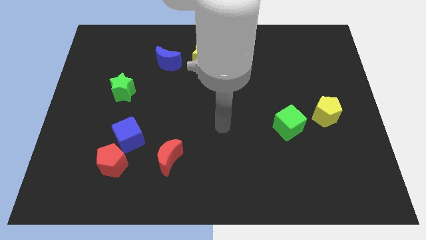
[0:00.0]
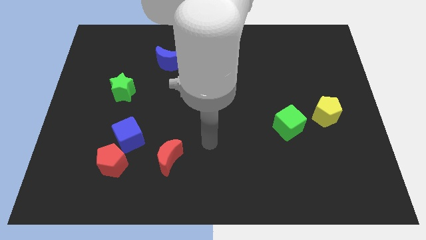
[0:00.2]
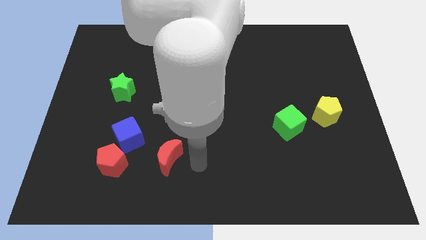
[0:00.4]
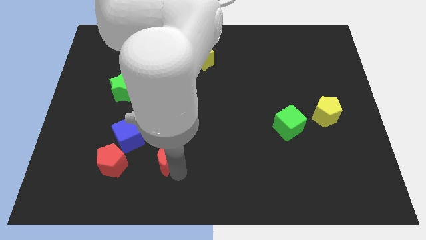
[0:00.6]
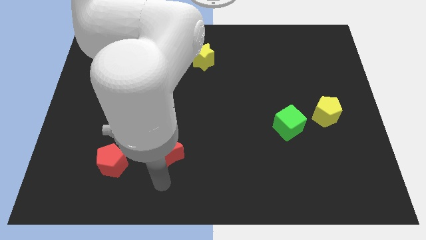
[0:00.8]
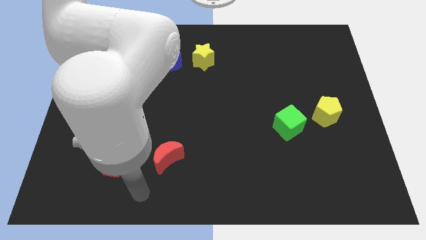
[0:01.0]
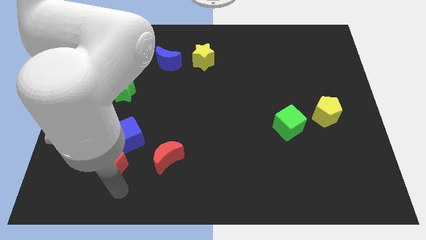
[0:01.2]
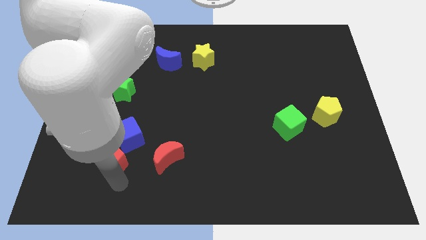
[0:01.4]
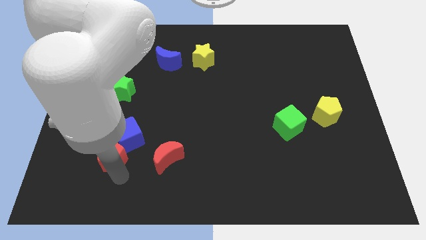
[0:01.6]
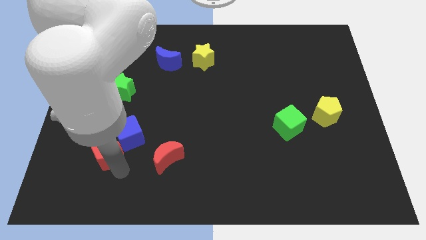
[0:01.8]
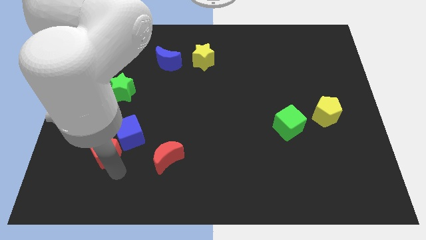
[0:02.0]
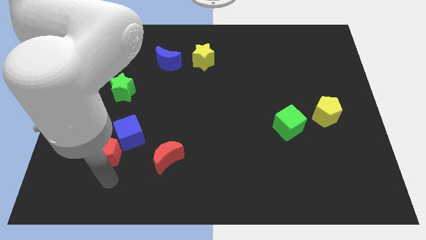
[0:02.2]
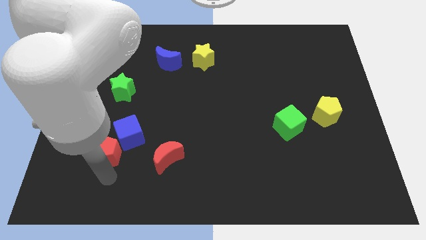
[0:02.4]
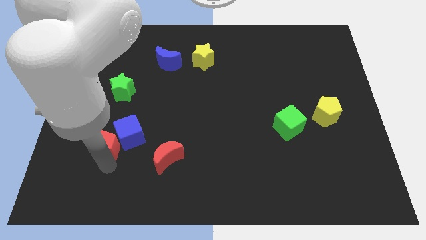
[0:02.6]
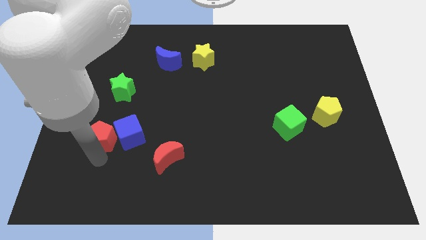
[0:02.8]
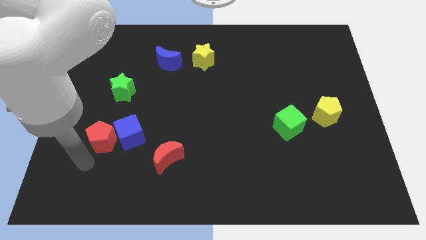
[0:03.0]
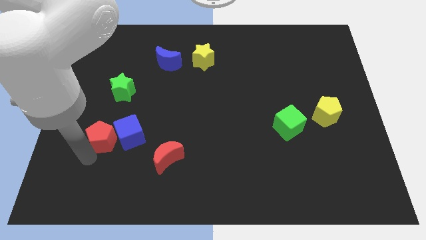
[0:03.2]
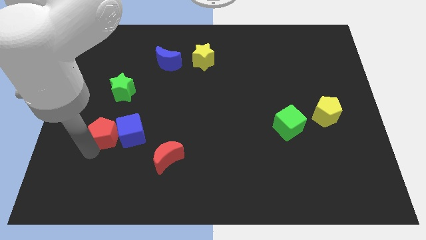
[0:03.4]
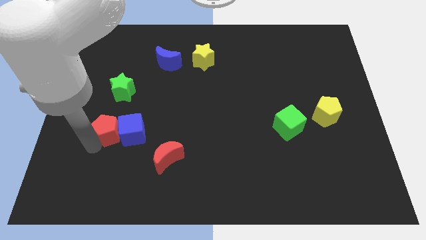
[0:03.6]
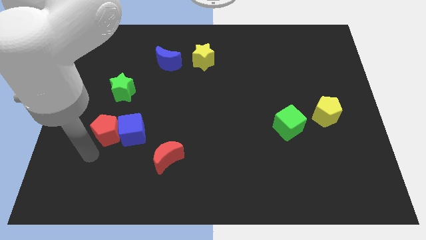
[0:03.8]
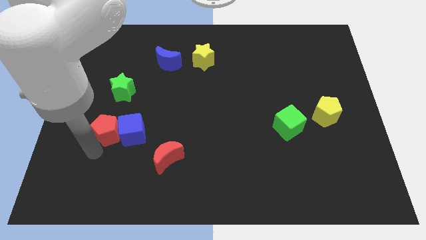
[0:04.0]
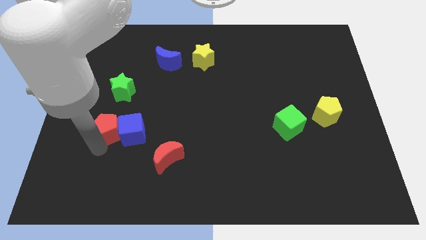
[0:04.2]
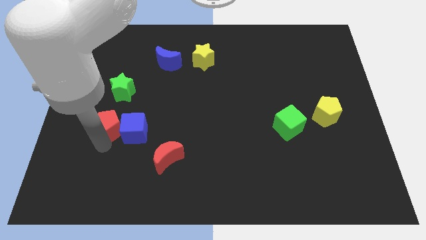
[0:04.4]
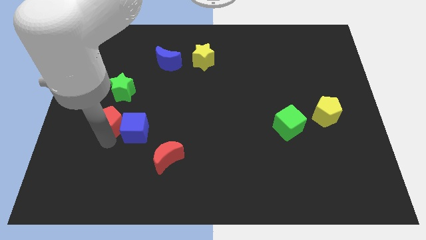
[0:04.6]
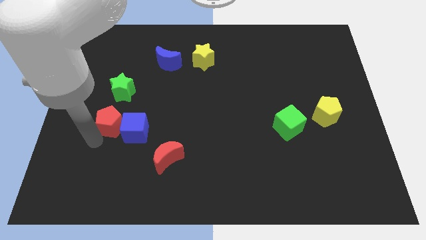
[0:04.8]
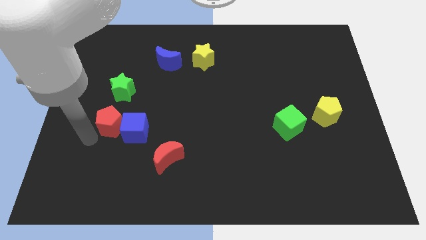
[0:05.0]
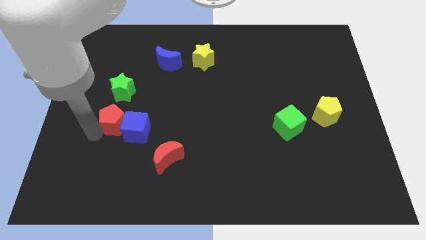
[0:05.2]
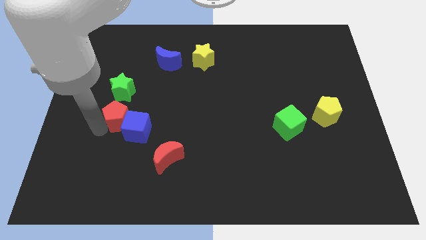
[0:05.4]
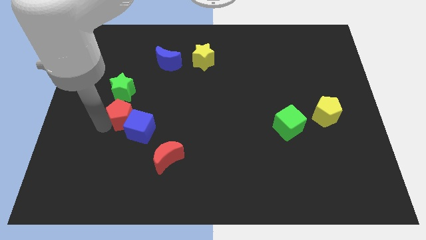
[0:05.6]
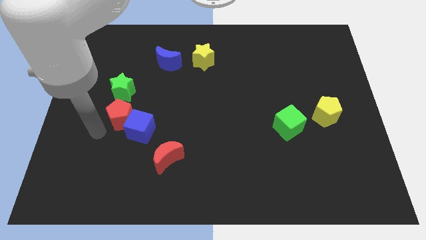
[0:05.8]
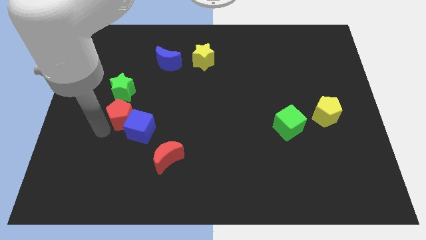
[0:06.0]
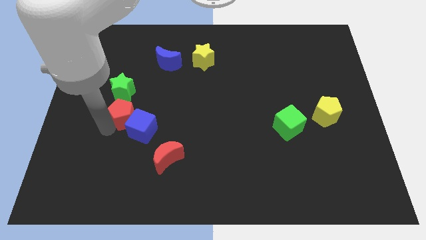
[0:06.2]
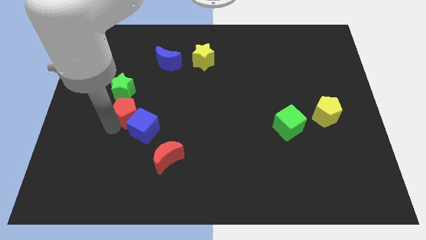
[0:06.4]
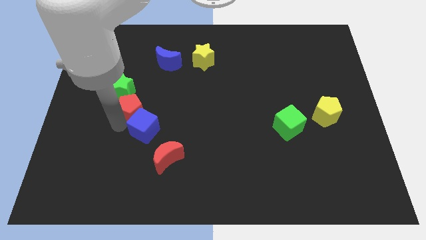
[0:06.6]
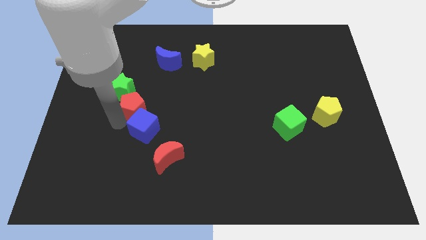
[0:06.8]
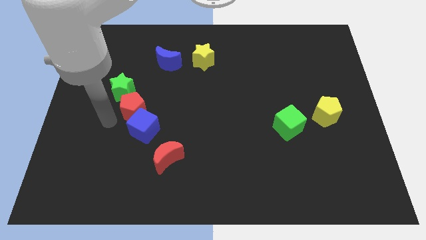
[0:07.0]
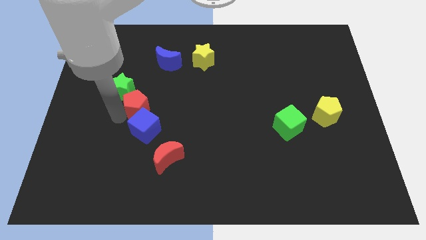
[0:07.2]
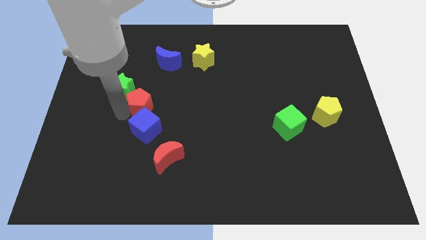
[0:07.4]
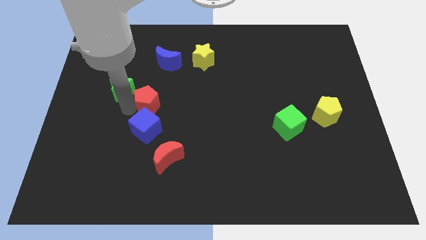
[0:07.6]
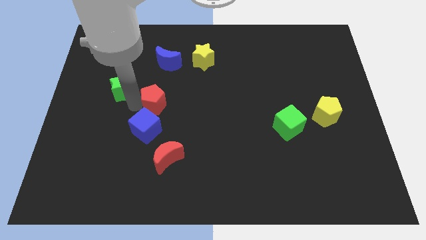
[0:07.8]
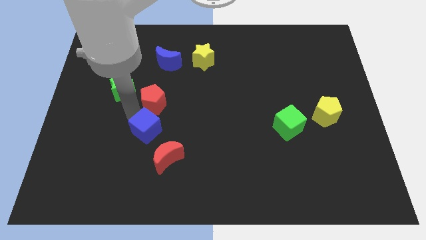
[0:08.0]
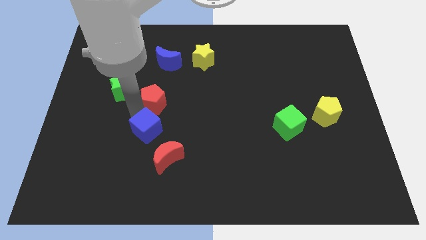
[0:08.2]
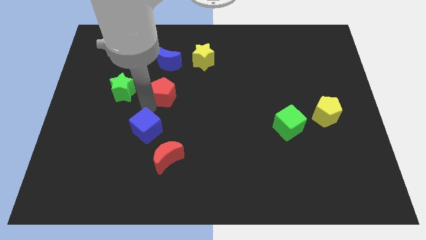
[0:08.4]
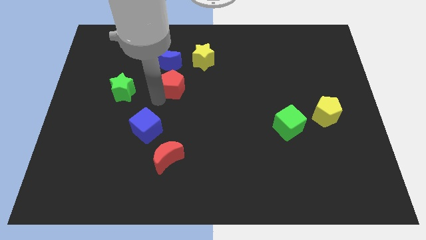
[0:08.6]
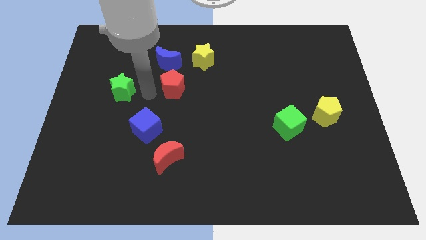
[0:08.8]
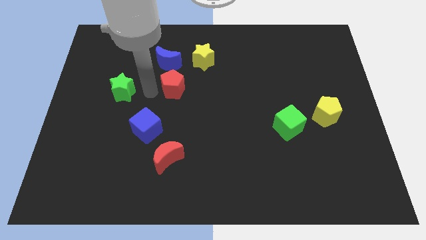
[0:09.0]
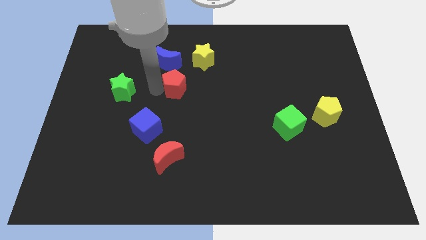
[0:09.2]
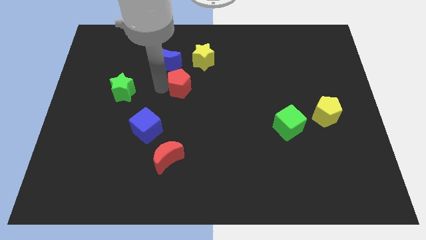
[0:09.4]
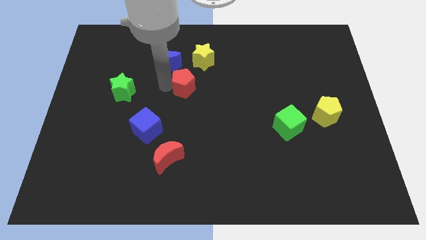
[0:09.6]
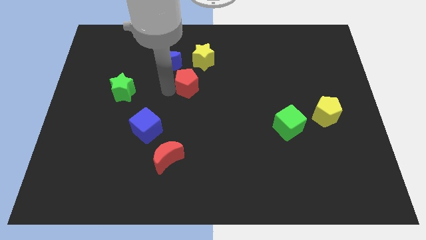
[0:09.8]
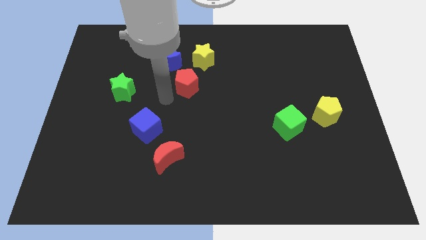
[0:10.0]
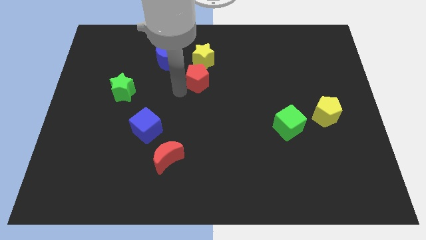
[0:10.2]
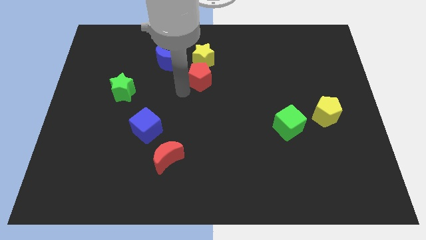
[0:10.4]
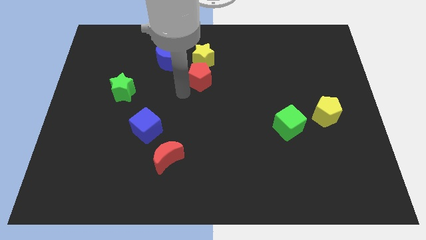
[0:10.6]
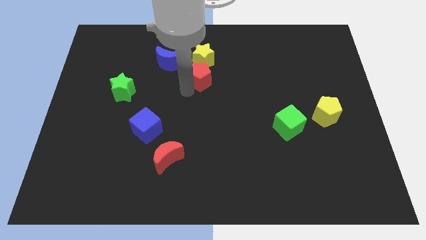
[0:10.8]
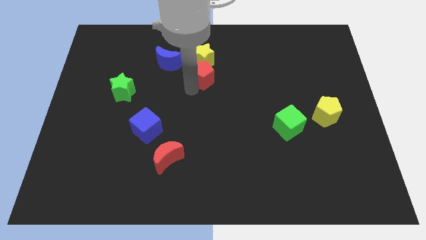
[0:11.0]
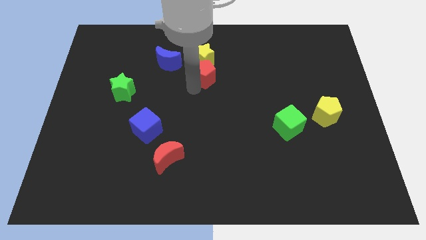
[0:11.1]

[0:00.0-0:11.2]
push the red pentagon to the right side of the blue moon

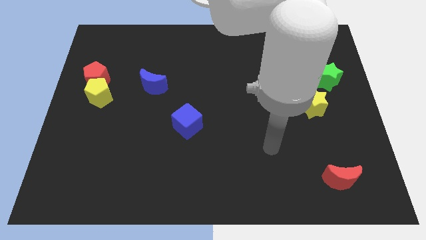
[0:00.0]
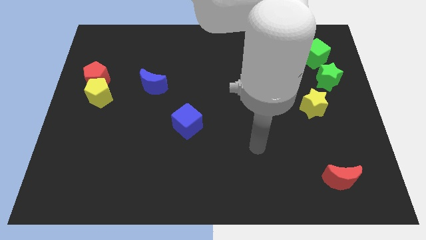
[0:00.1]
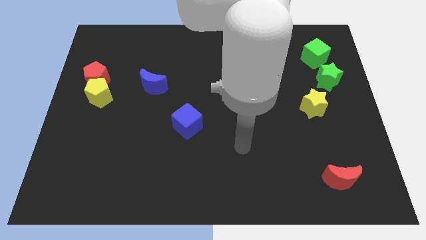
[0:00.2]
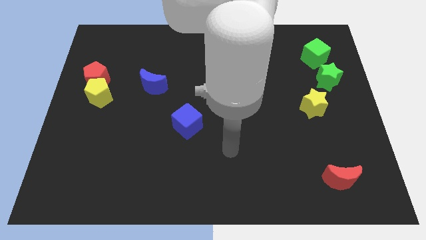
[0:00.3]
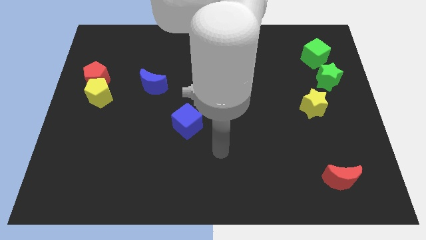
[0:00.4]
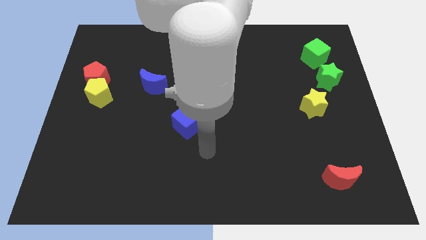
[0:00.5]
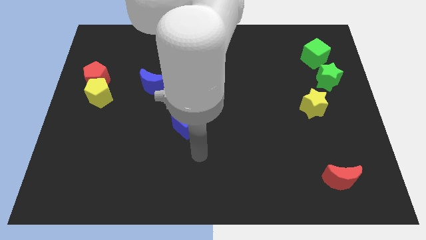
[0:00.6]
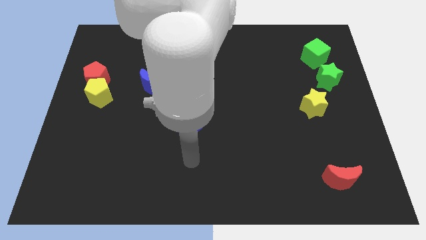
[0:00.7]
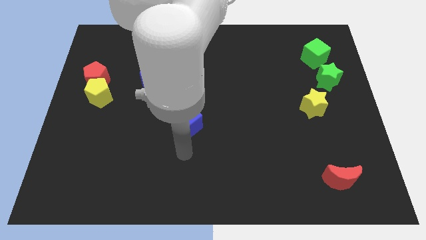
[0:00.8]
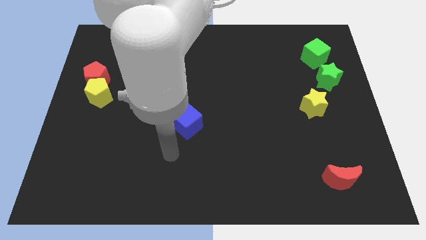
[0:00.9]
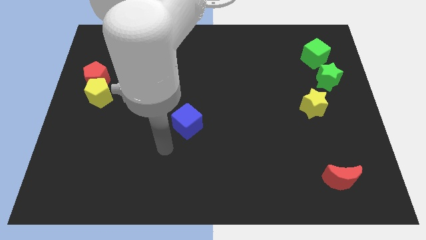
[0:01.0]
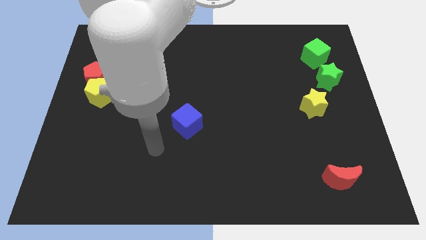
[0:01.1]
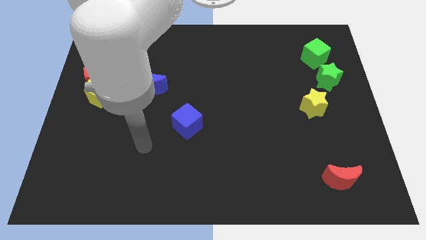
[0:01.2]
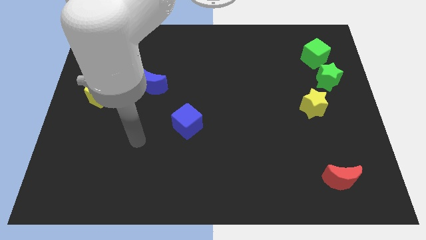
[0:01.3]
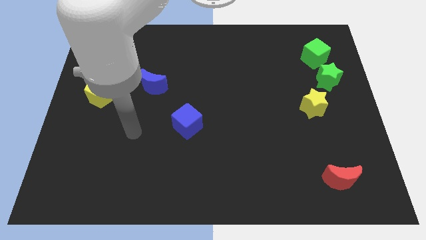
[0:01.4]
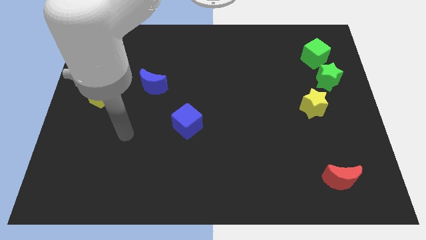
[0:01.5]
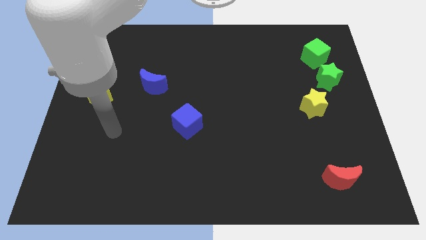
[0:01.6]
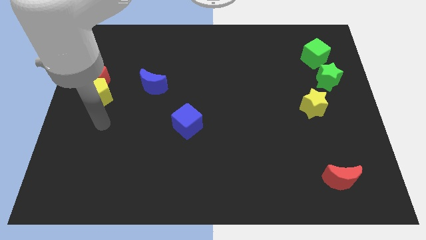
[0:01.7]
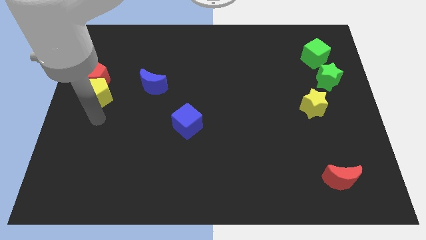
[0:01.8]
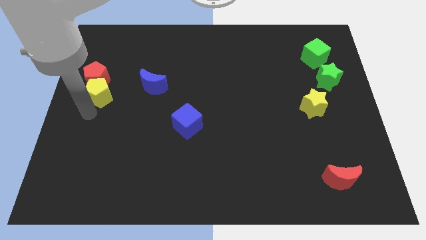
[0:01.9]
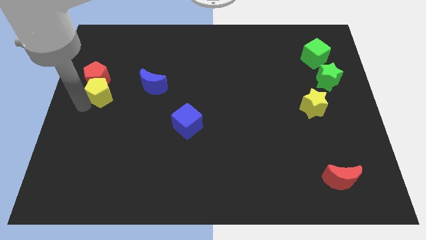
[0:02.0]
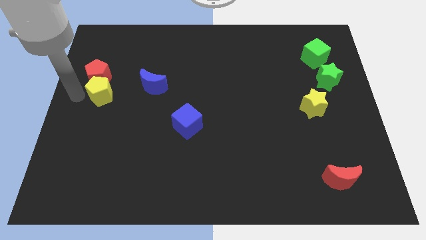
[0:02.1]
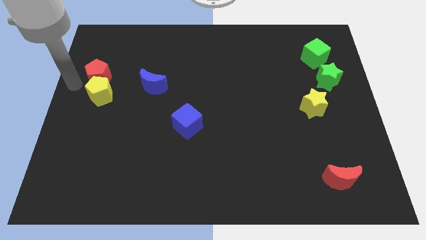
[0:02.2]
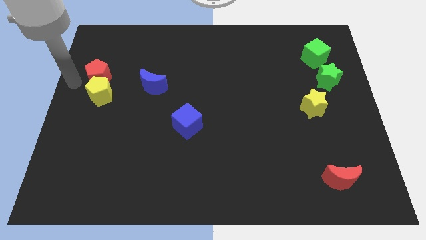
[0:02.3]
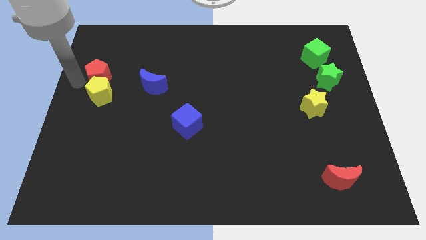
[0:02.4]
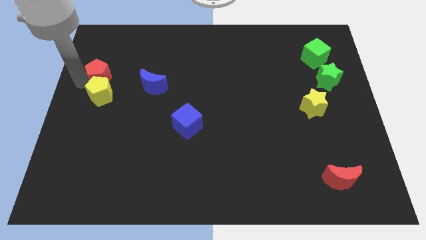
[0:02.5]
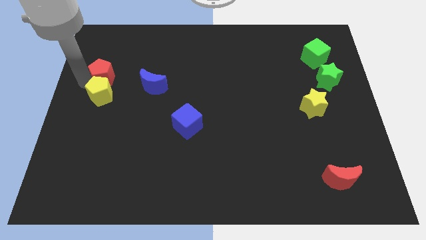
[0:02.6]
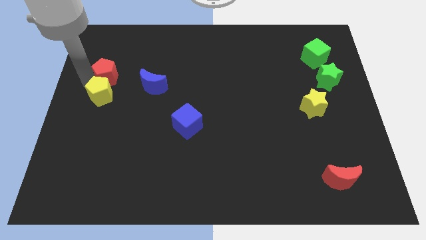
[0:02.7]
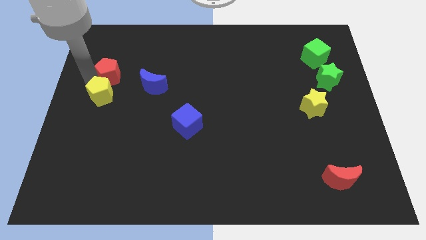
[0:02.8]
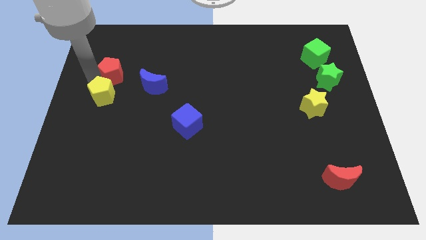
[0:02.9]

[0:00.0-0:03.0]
slide the red pentagon diagonally up and to the left of the blue moon
